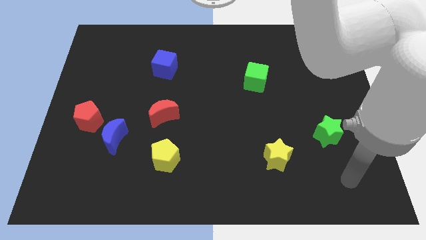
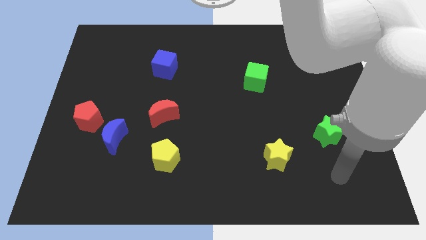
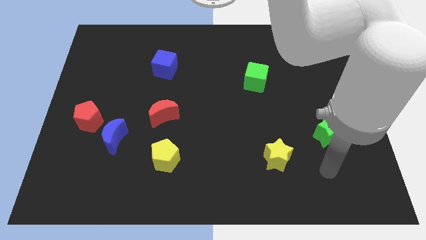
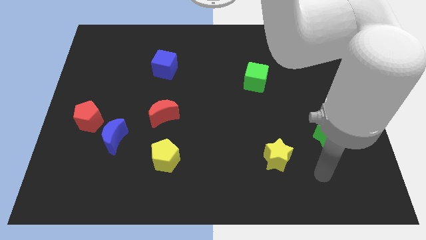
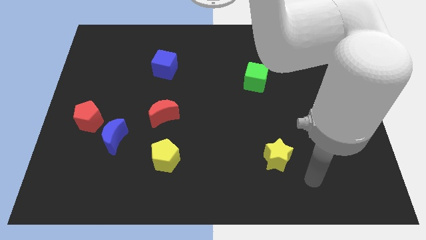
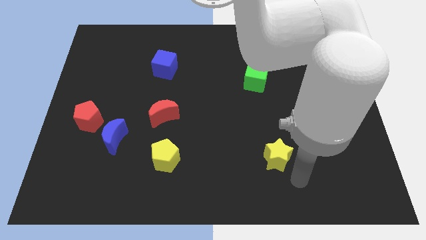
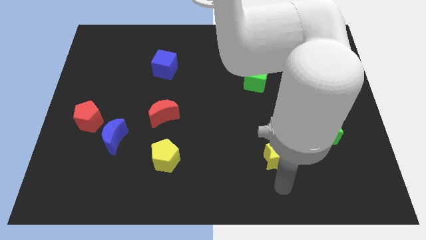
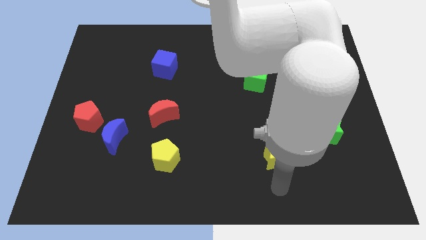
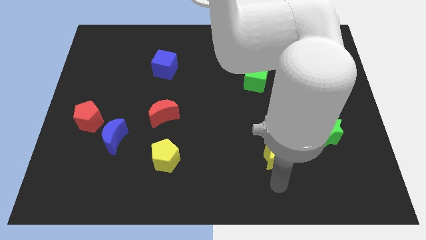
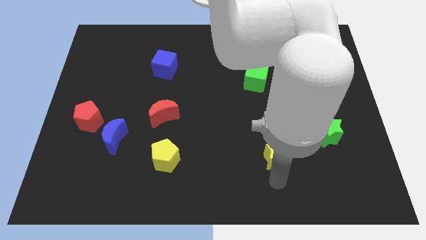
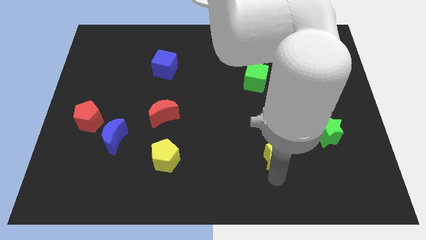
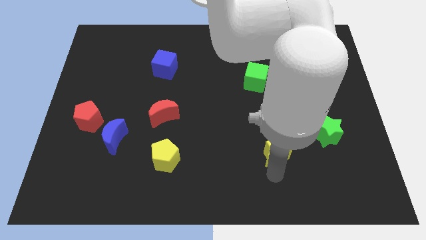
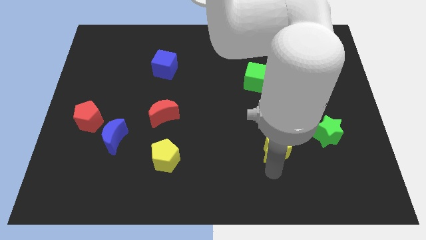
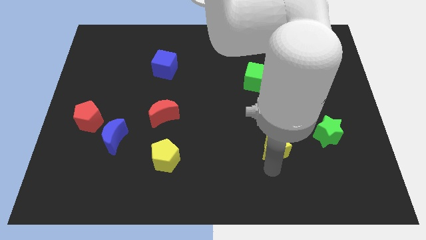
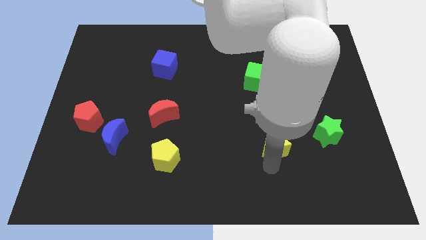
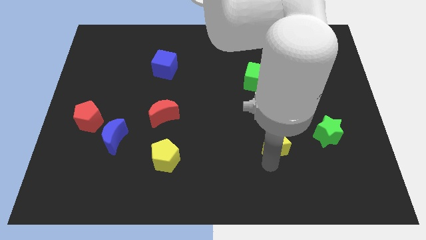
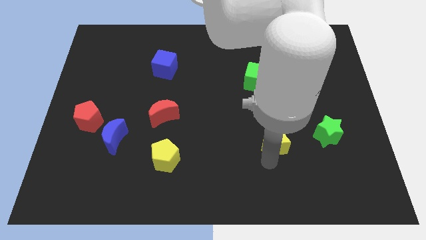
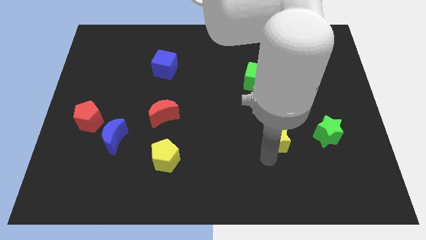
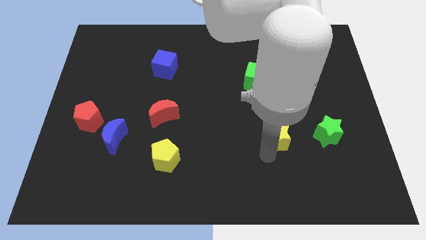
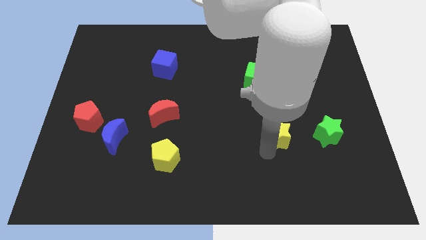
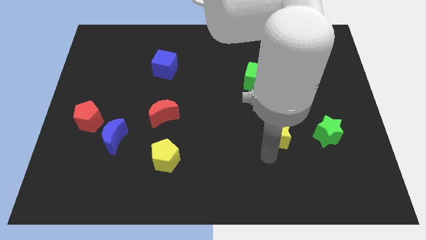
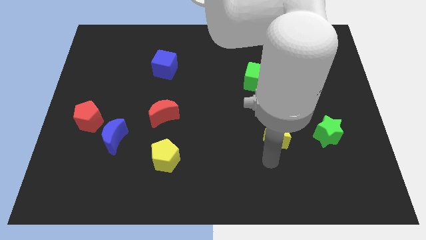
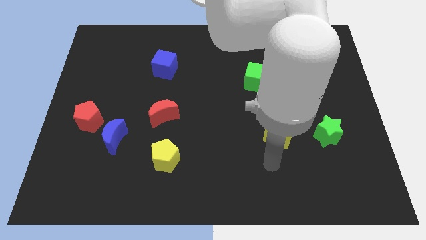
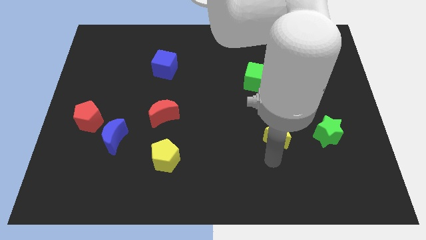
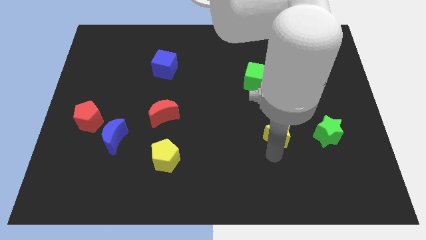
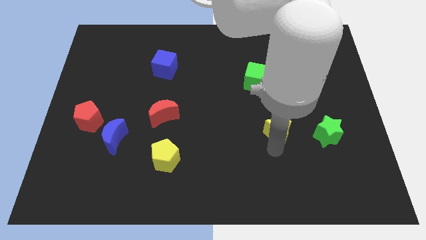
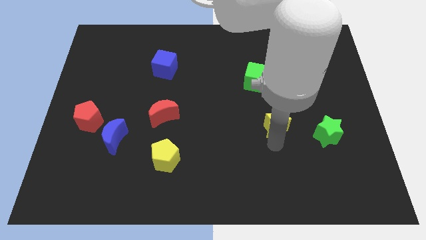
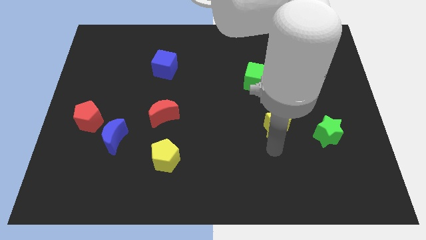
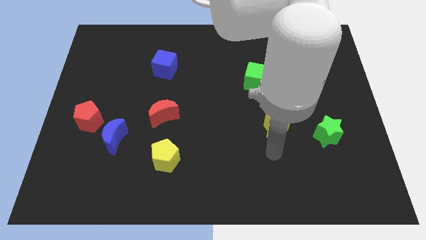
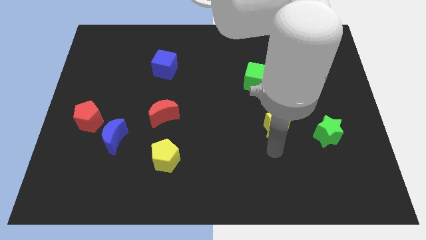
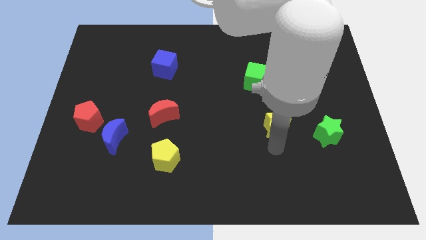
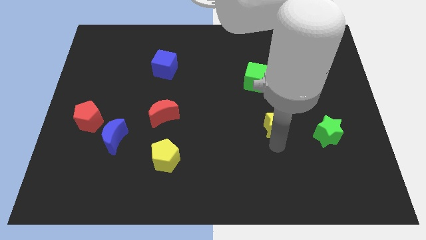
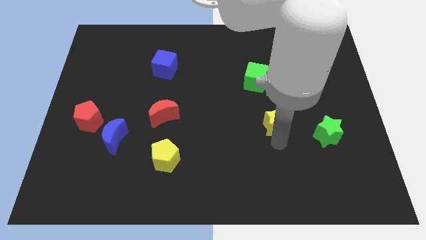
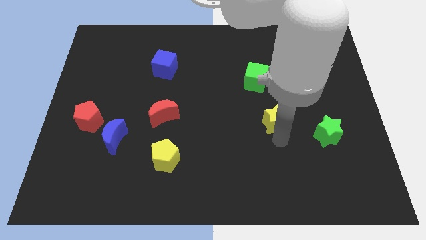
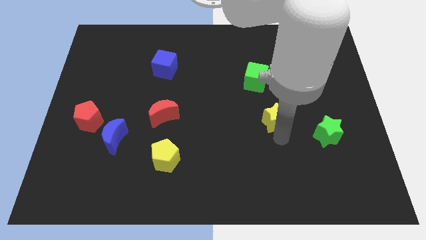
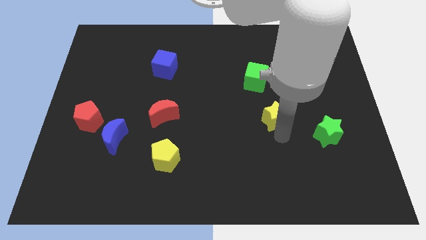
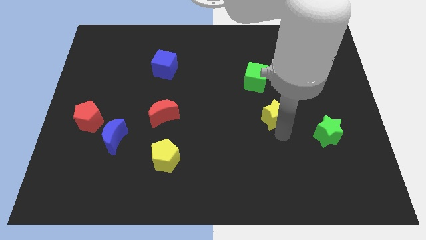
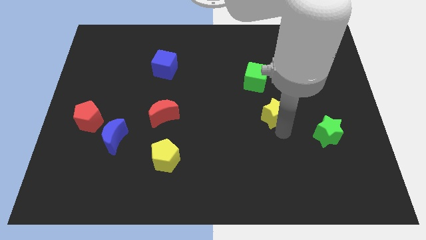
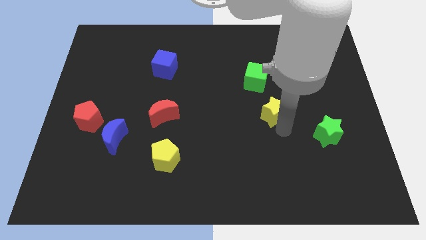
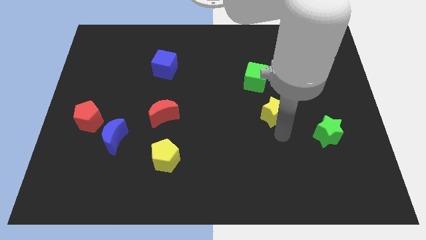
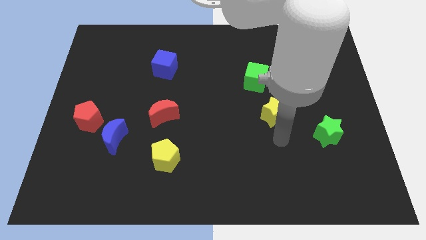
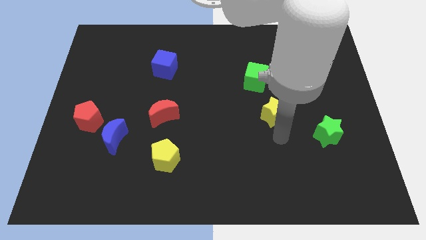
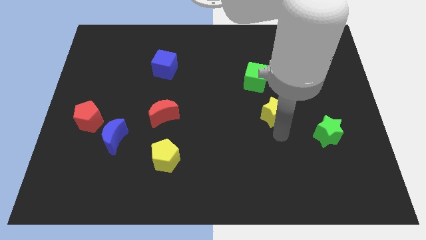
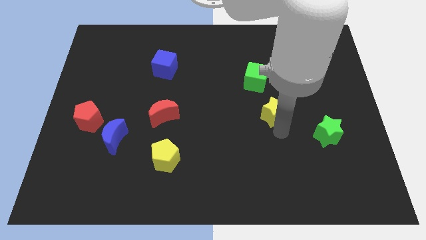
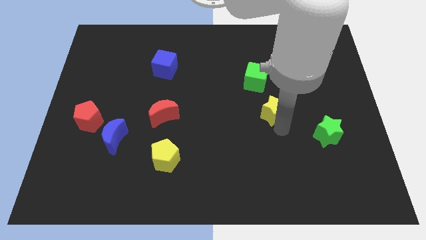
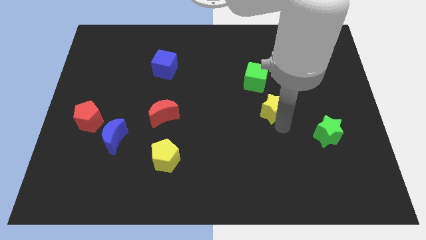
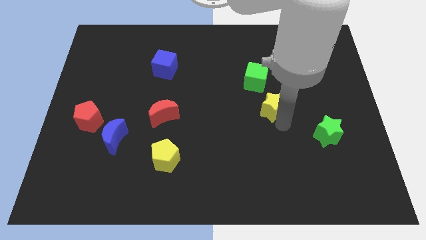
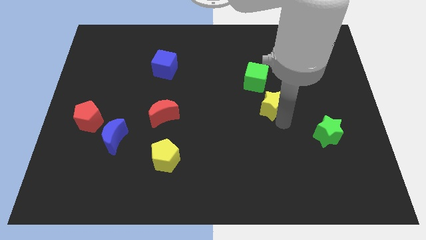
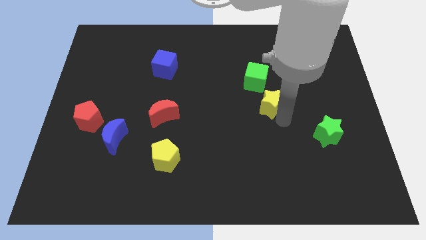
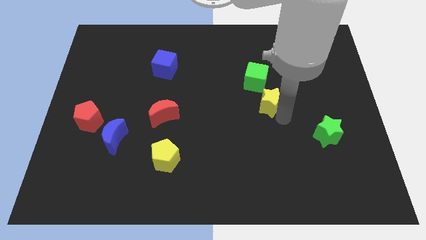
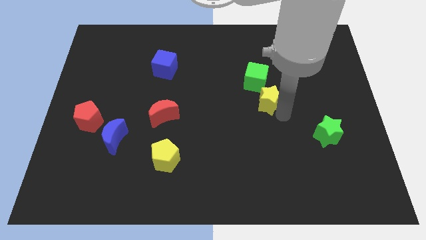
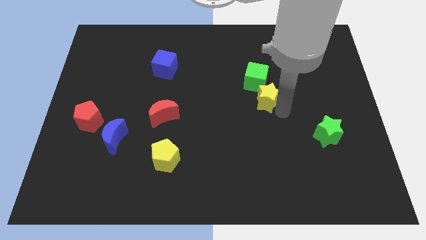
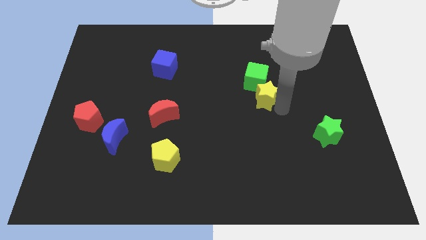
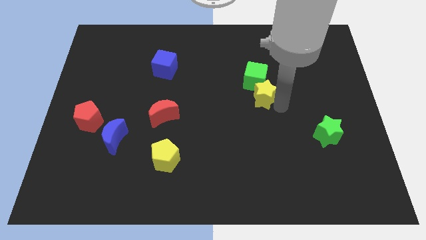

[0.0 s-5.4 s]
put the yellow star next to the green cube

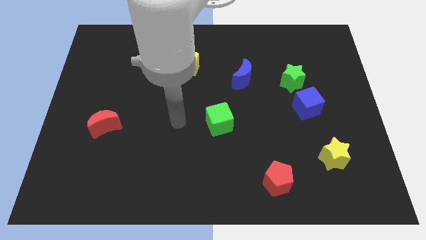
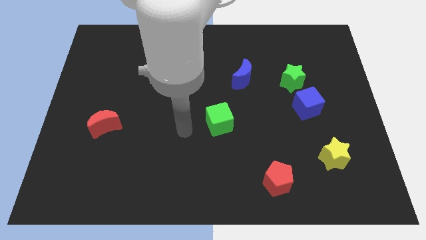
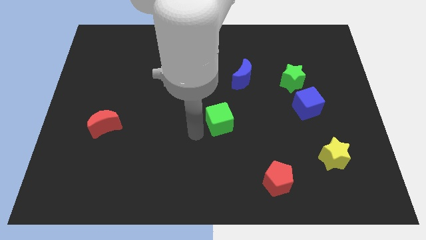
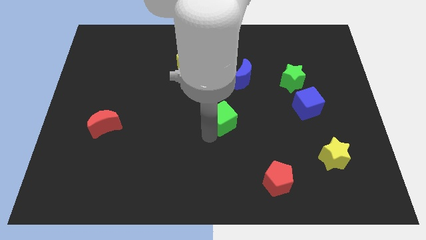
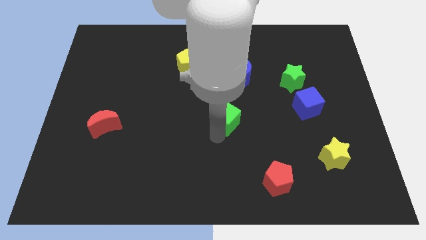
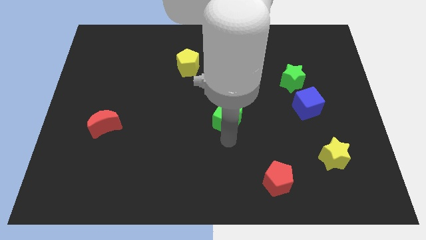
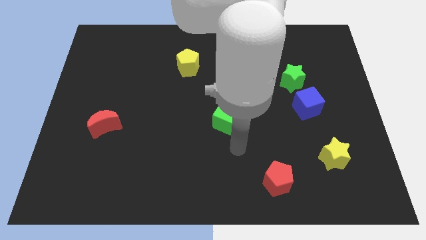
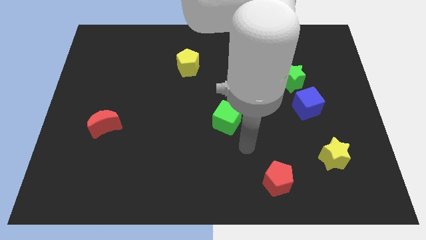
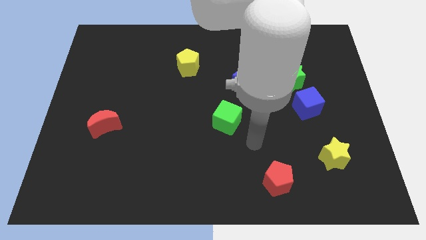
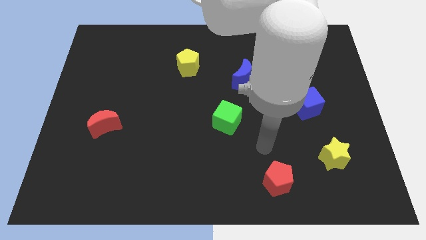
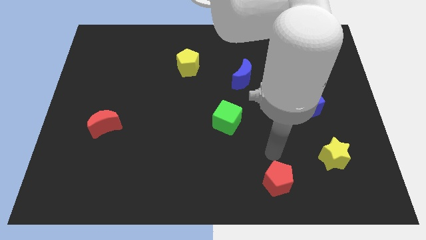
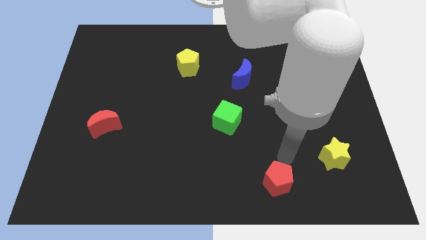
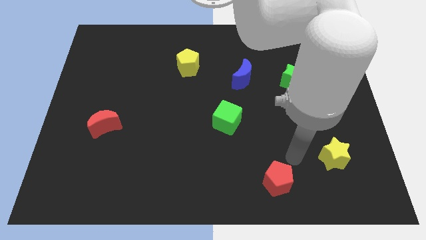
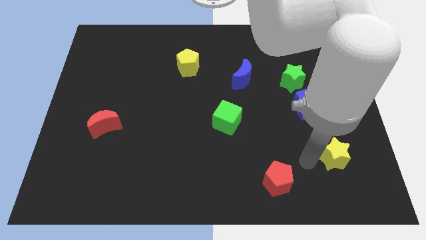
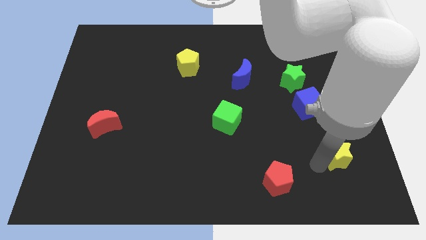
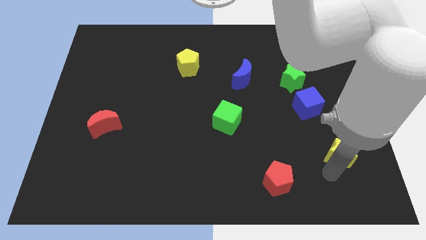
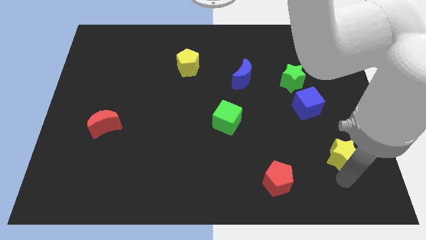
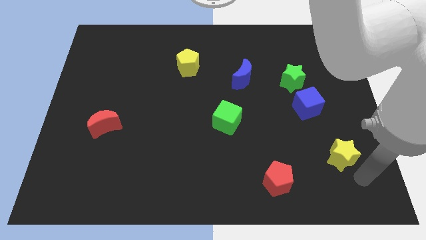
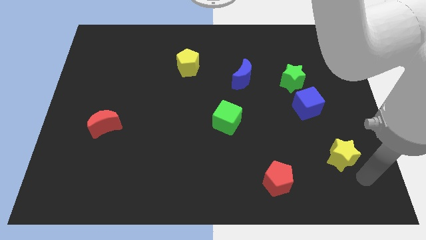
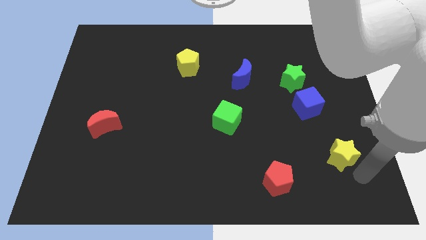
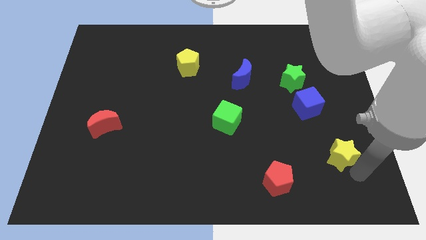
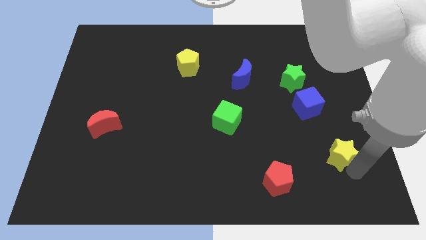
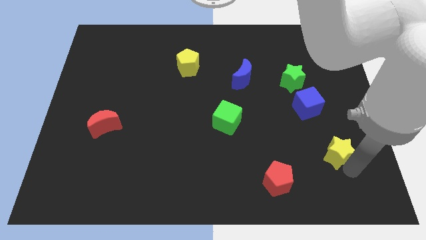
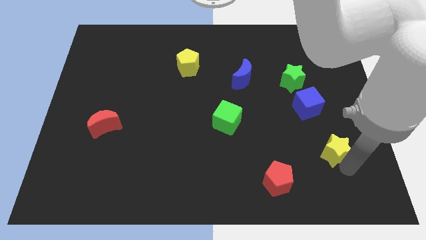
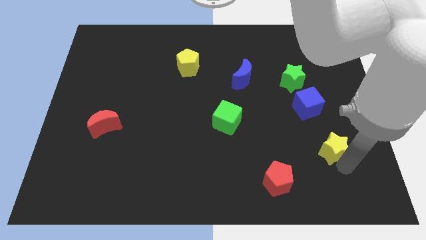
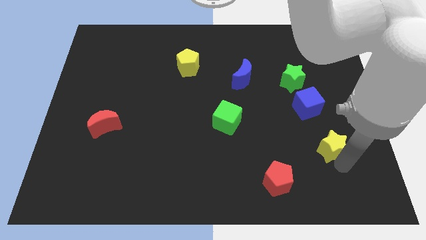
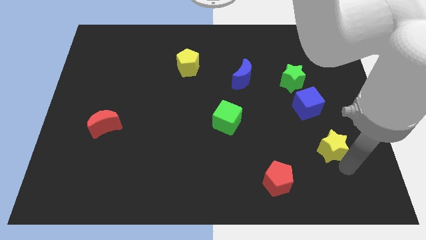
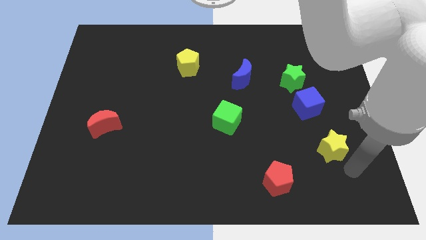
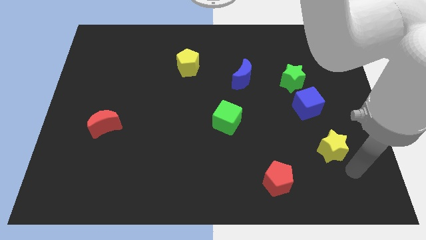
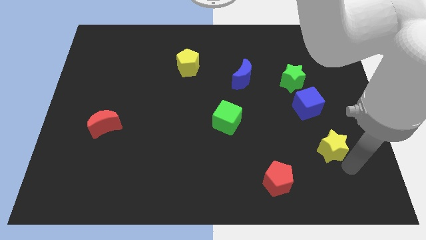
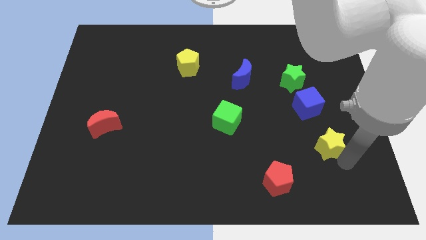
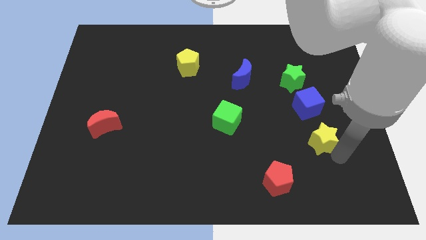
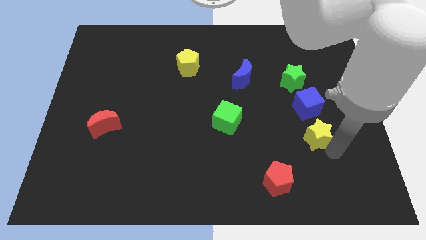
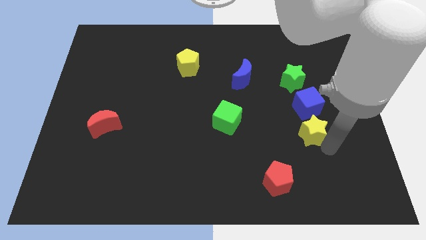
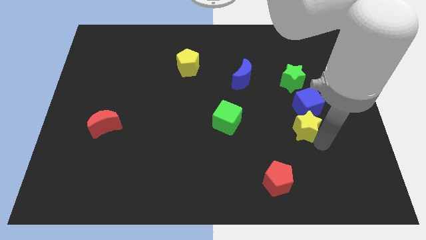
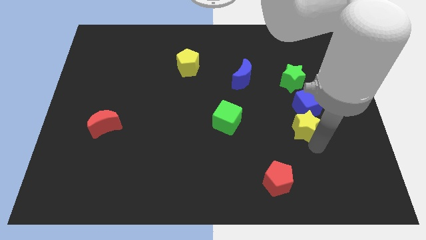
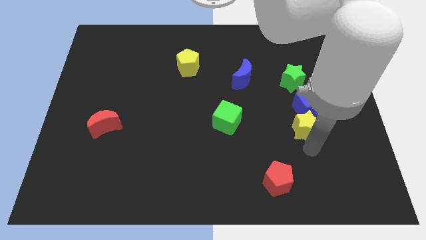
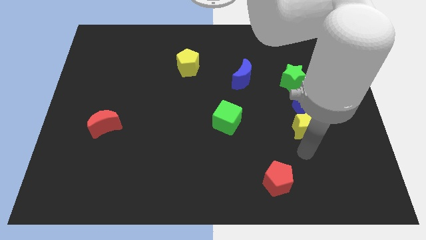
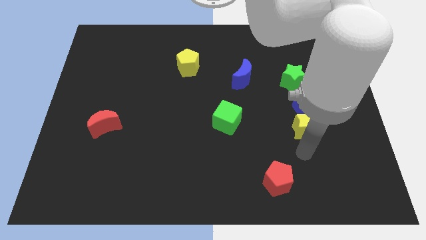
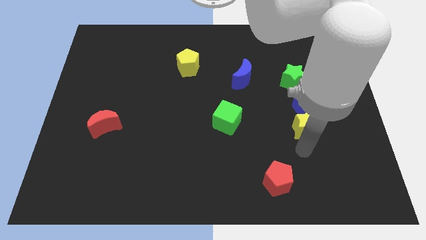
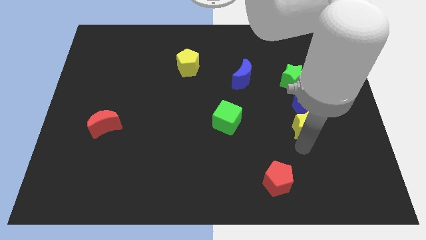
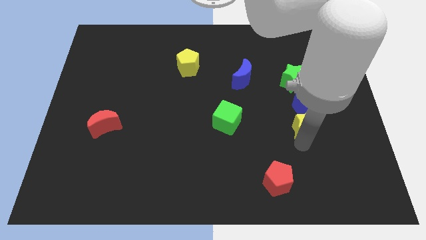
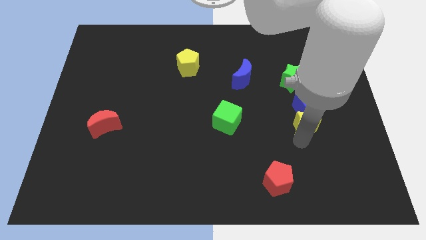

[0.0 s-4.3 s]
push the yellow star close to the blue cube
